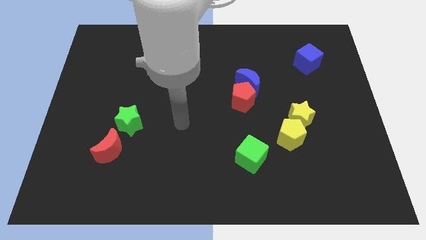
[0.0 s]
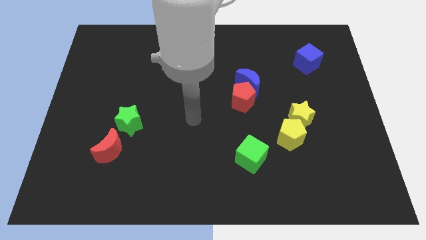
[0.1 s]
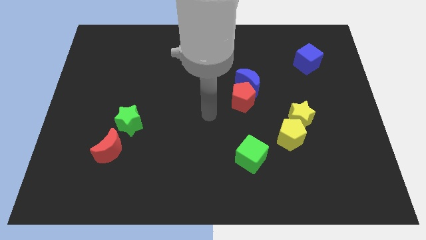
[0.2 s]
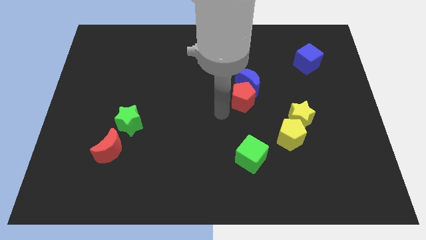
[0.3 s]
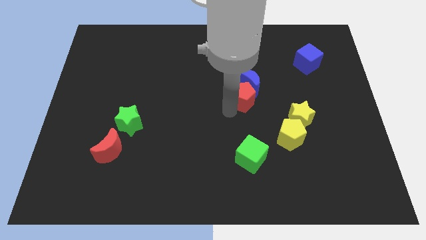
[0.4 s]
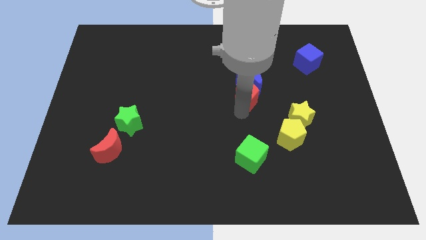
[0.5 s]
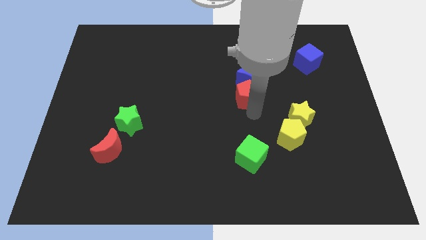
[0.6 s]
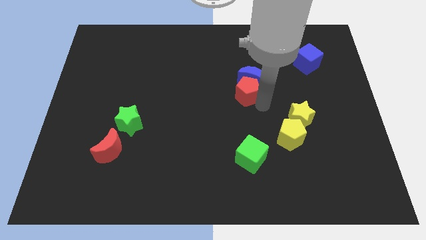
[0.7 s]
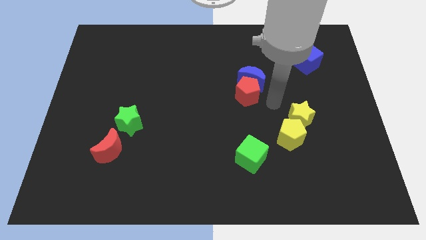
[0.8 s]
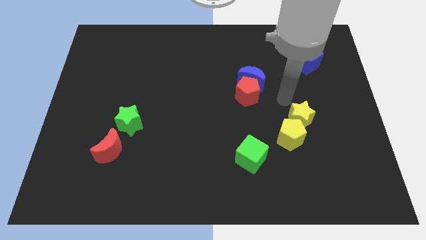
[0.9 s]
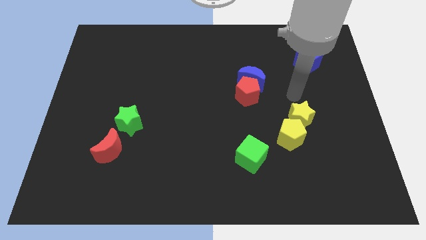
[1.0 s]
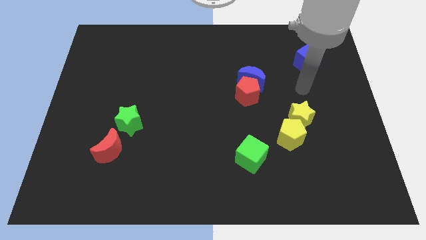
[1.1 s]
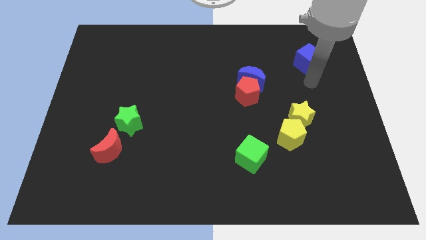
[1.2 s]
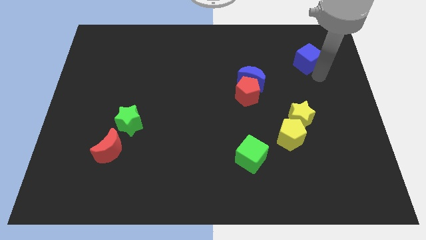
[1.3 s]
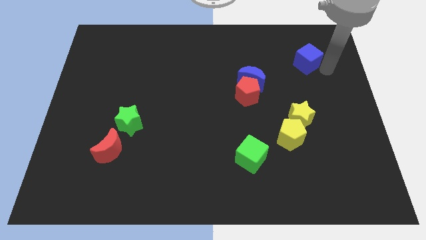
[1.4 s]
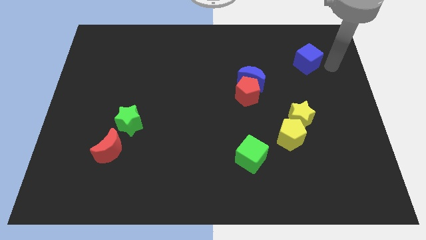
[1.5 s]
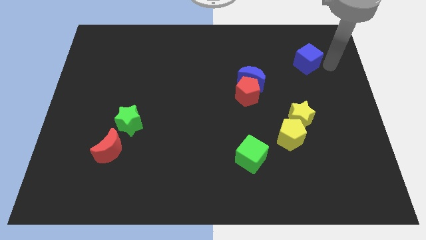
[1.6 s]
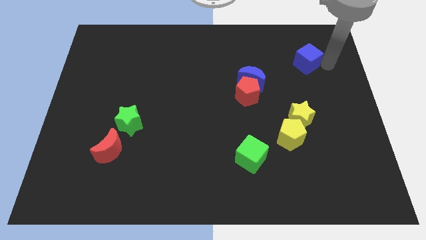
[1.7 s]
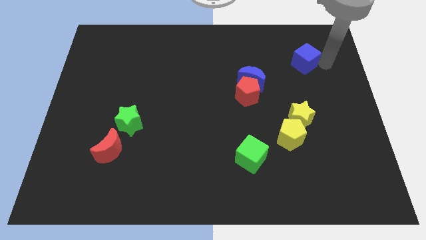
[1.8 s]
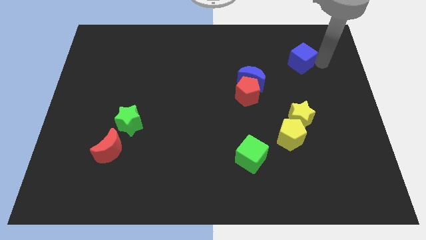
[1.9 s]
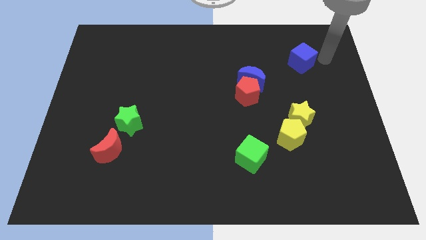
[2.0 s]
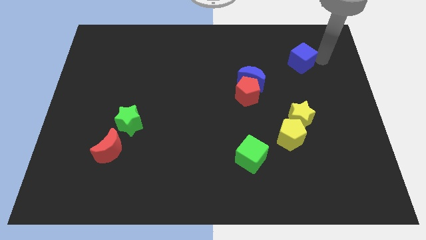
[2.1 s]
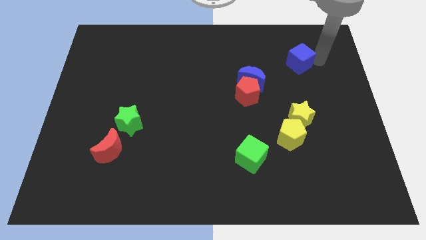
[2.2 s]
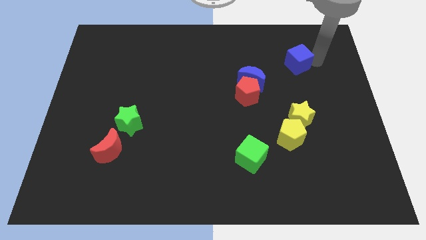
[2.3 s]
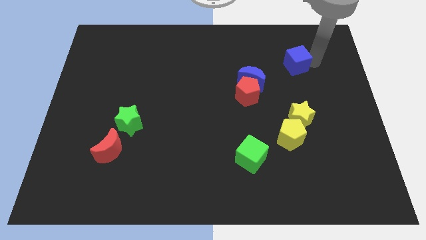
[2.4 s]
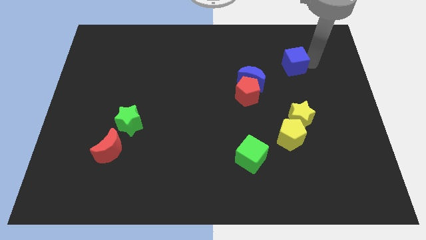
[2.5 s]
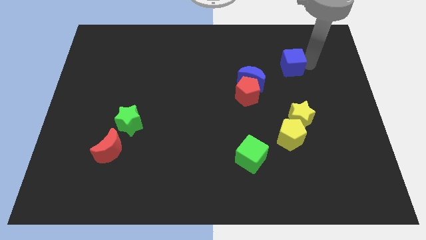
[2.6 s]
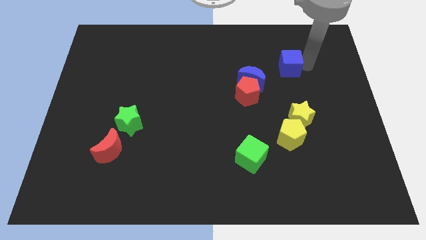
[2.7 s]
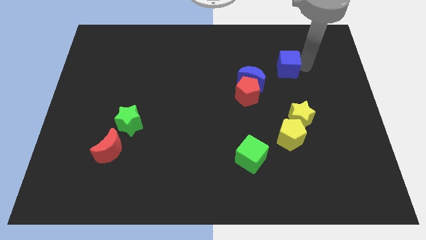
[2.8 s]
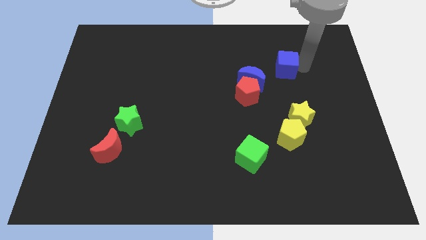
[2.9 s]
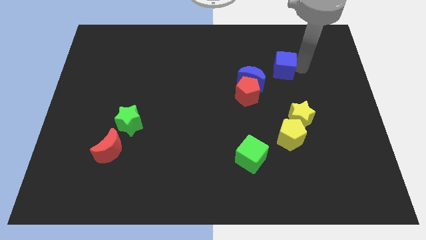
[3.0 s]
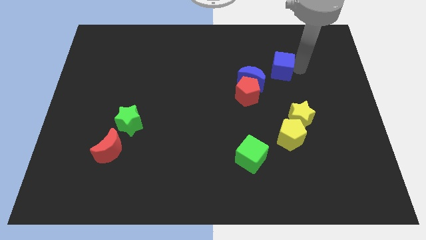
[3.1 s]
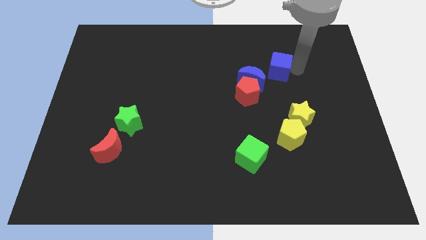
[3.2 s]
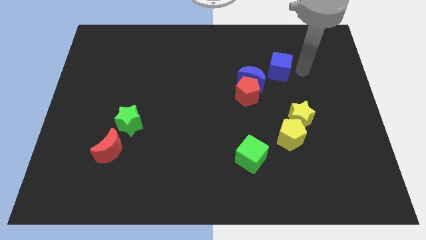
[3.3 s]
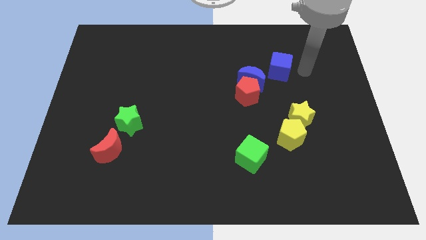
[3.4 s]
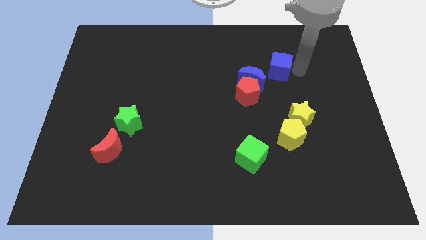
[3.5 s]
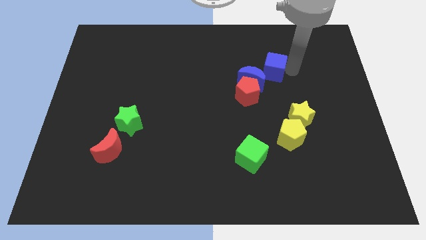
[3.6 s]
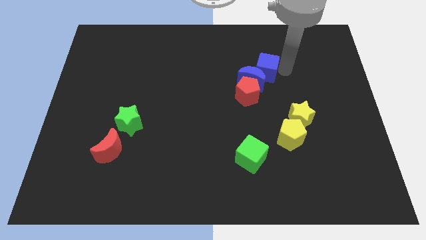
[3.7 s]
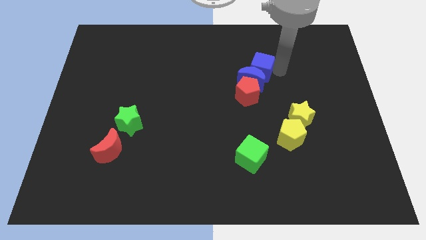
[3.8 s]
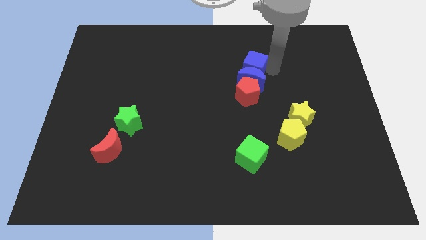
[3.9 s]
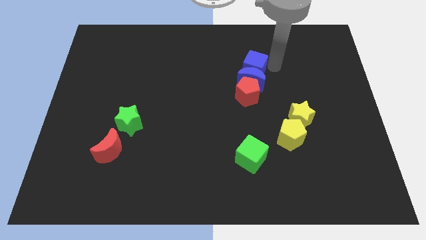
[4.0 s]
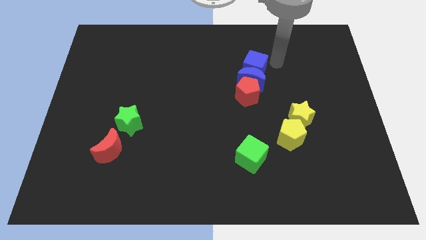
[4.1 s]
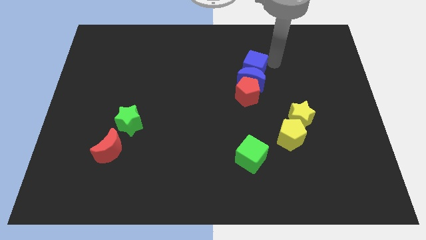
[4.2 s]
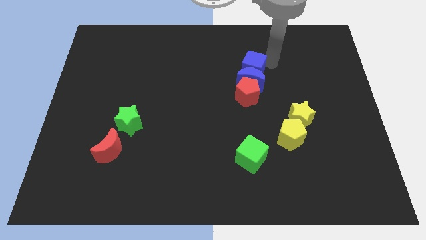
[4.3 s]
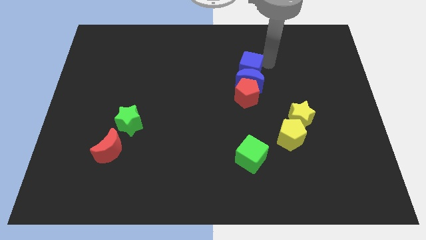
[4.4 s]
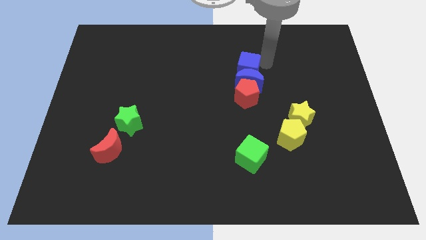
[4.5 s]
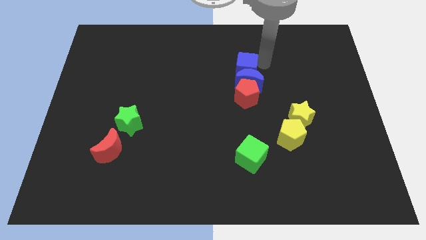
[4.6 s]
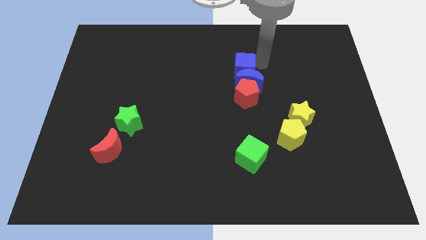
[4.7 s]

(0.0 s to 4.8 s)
slide the blue cube to the middle

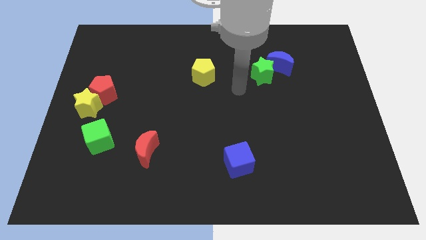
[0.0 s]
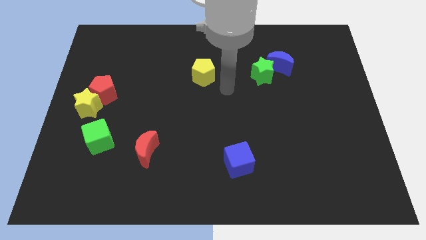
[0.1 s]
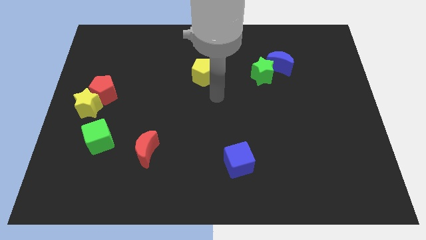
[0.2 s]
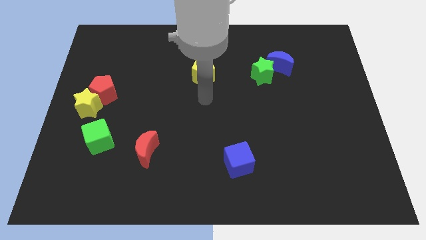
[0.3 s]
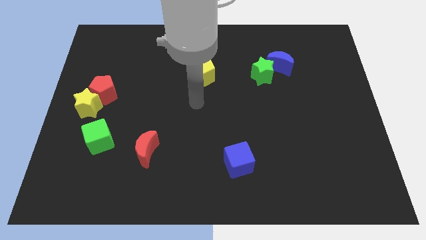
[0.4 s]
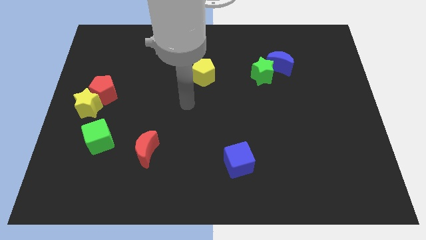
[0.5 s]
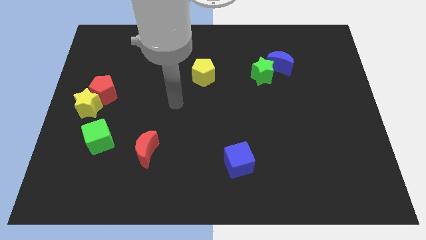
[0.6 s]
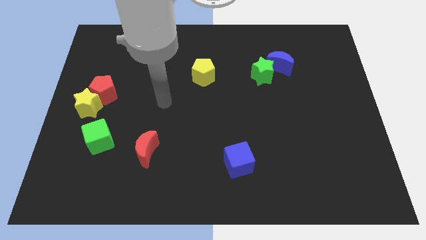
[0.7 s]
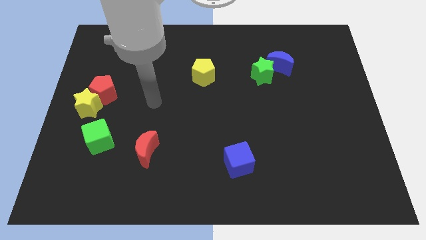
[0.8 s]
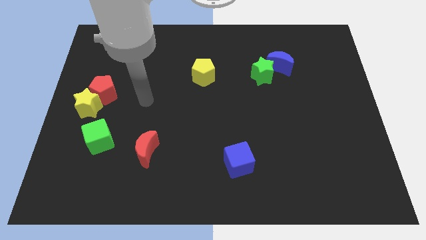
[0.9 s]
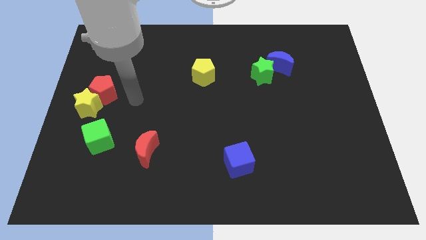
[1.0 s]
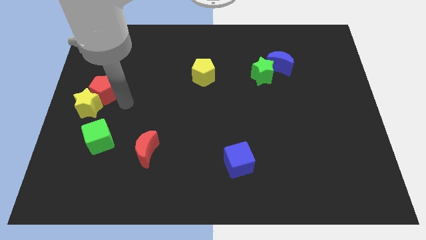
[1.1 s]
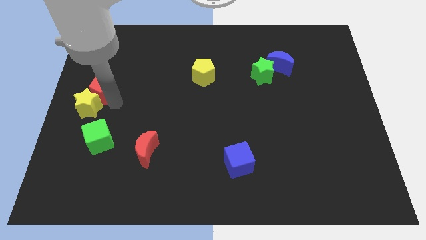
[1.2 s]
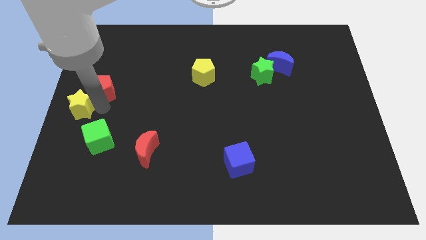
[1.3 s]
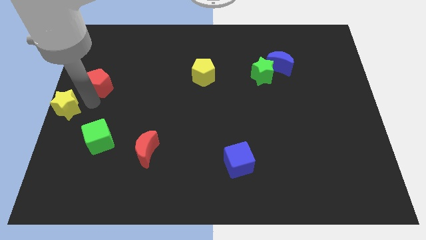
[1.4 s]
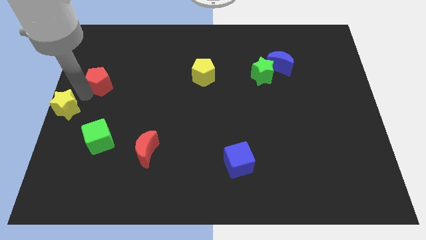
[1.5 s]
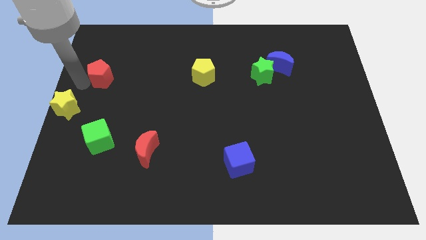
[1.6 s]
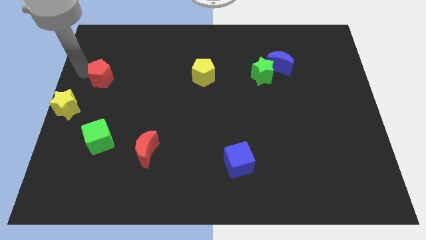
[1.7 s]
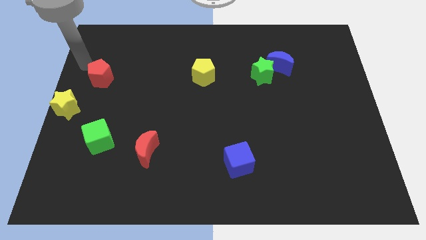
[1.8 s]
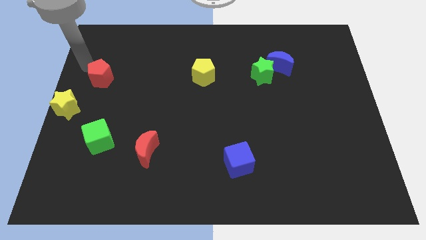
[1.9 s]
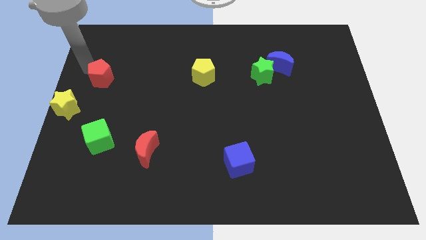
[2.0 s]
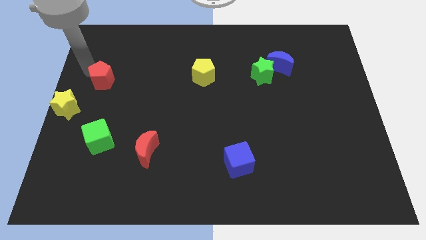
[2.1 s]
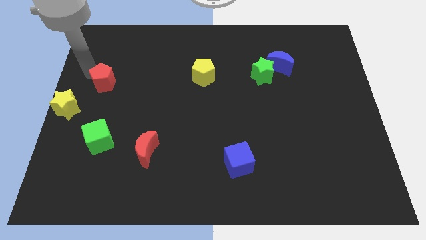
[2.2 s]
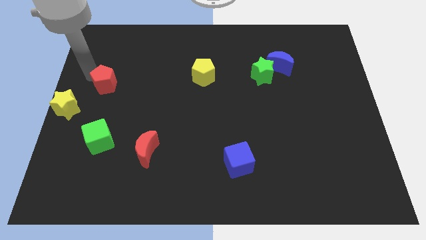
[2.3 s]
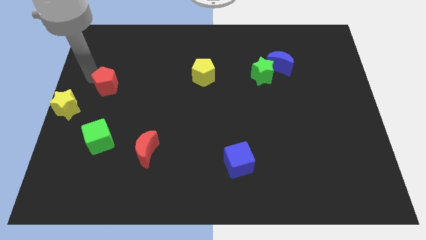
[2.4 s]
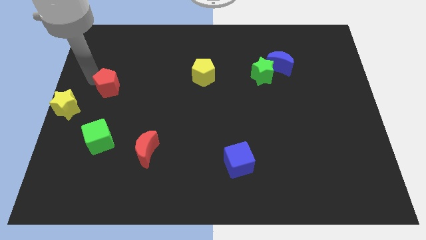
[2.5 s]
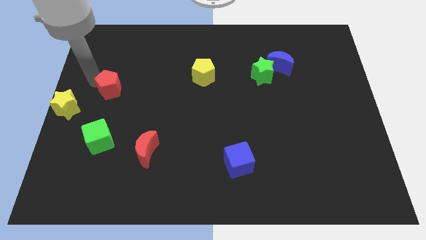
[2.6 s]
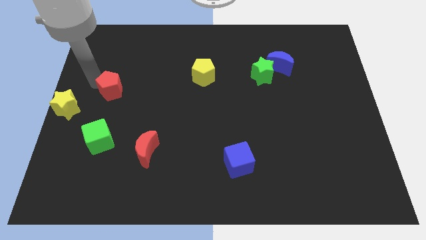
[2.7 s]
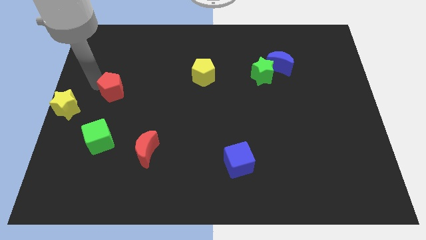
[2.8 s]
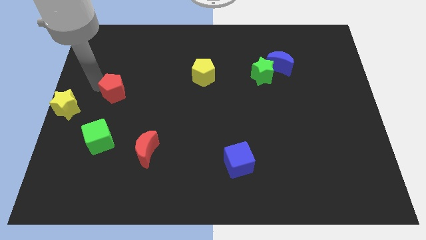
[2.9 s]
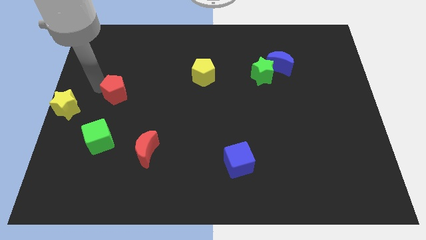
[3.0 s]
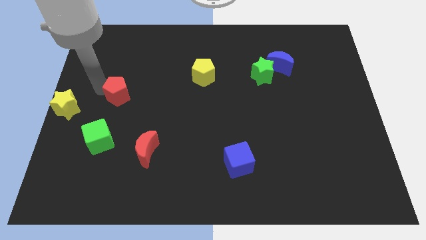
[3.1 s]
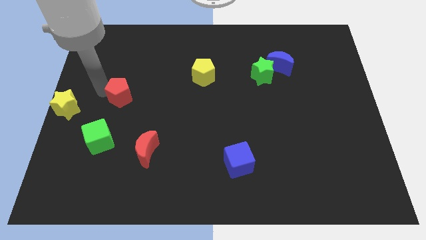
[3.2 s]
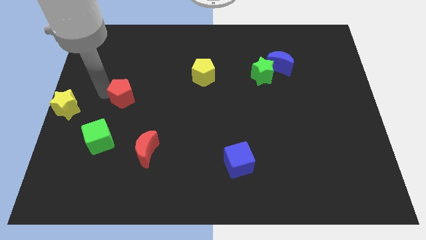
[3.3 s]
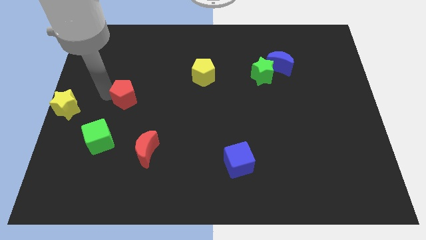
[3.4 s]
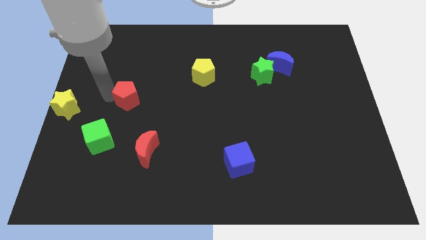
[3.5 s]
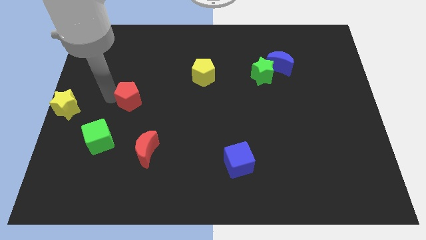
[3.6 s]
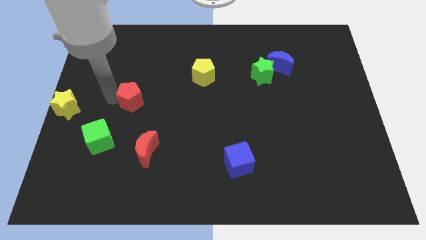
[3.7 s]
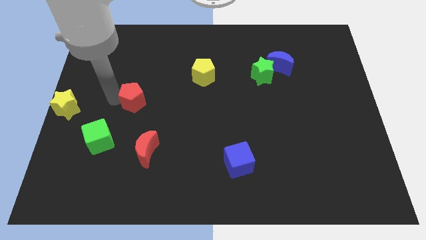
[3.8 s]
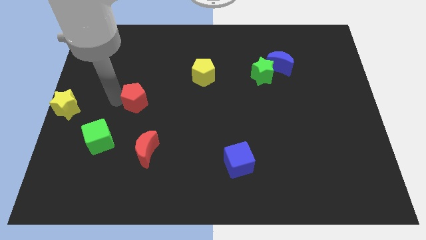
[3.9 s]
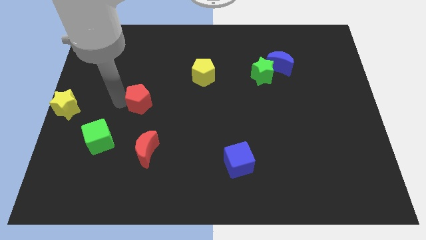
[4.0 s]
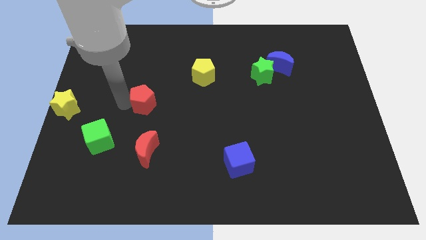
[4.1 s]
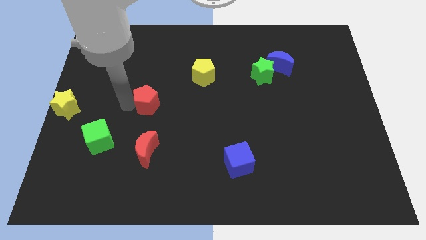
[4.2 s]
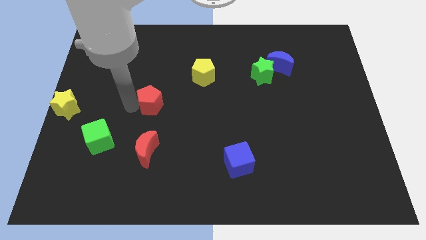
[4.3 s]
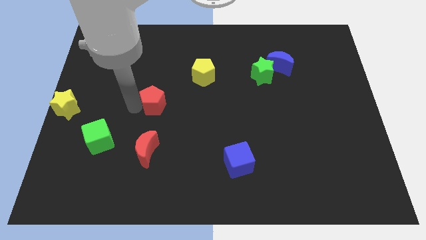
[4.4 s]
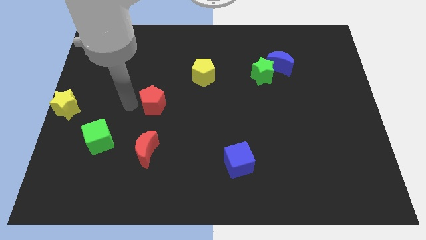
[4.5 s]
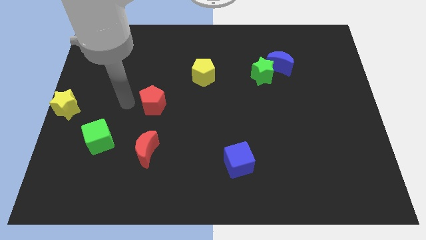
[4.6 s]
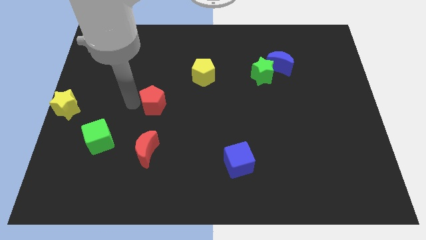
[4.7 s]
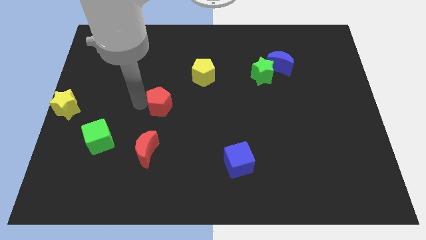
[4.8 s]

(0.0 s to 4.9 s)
put the red pentagon to the middle of the board
